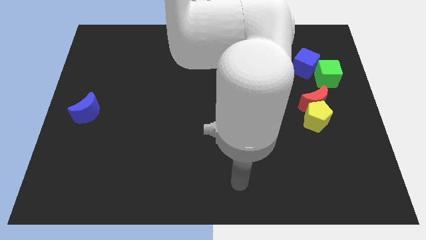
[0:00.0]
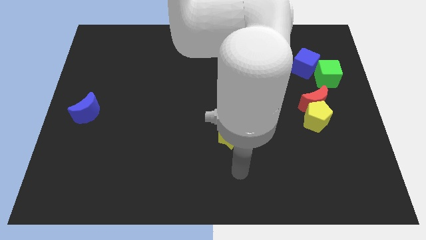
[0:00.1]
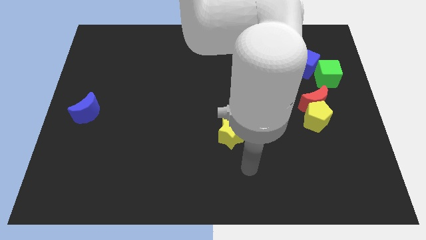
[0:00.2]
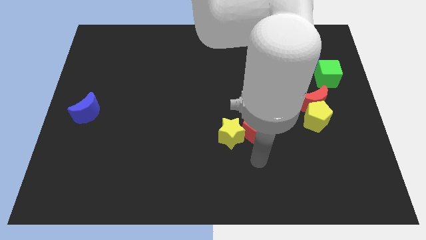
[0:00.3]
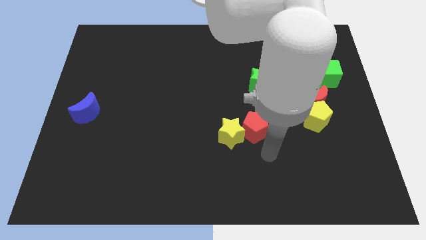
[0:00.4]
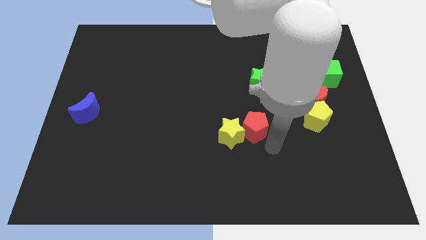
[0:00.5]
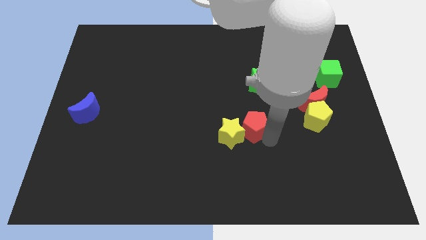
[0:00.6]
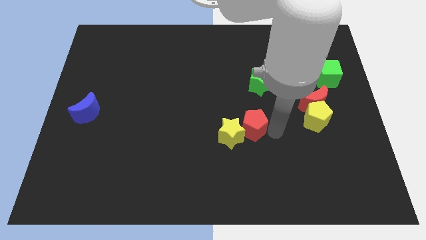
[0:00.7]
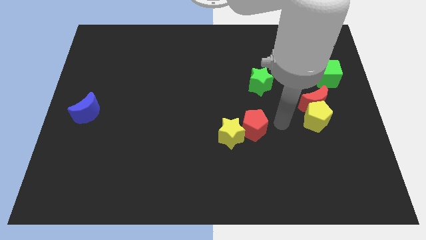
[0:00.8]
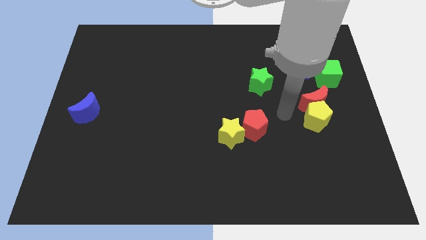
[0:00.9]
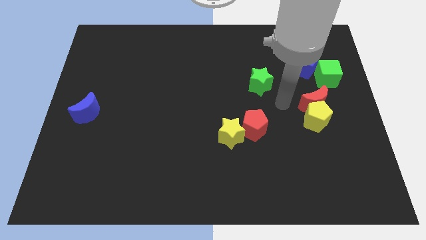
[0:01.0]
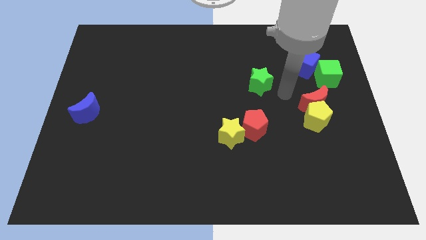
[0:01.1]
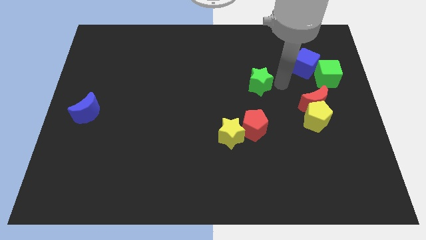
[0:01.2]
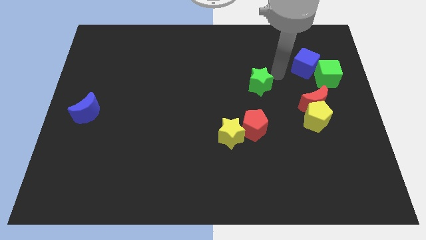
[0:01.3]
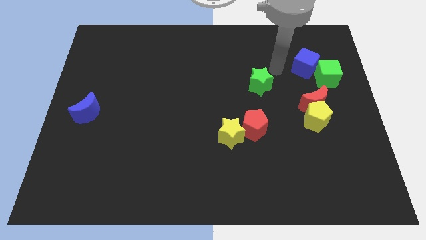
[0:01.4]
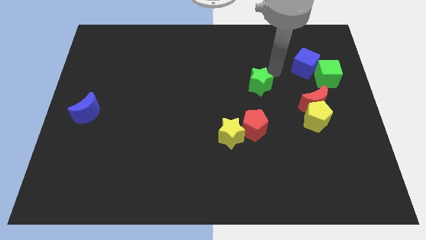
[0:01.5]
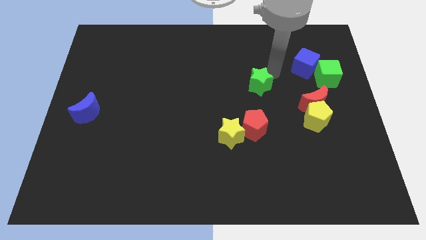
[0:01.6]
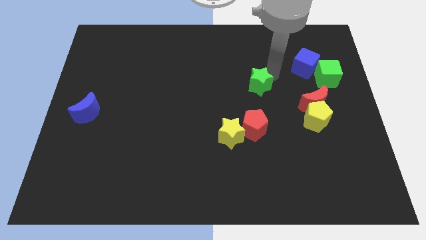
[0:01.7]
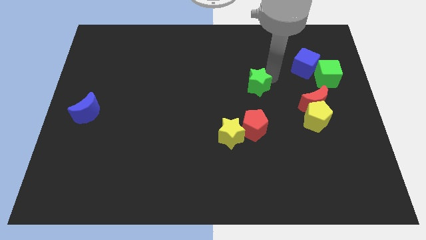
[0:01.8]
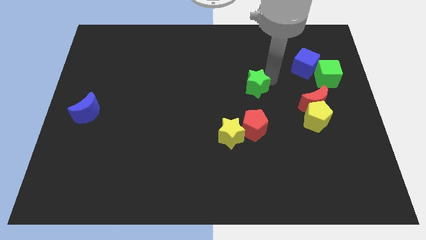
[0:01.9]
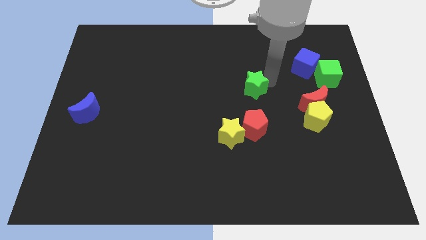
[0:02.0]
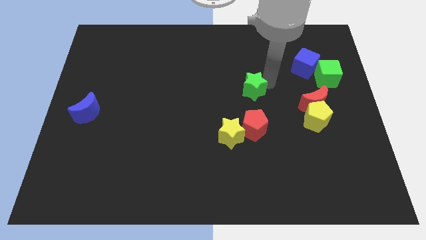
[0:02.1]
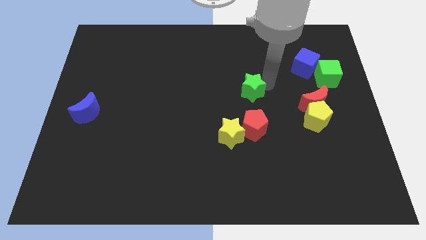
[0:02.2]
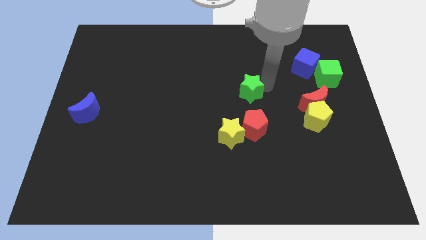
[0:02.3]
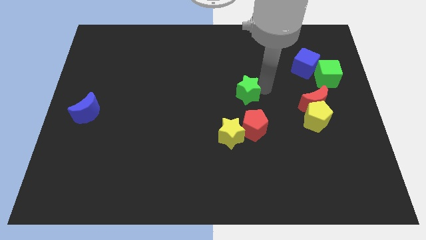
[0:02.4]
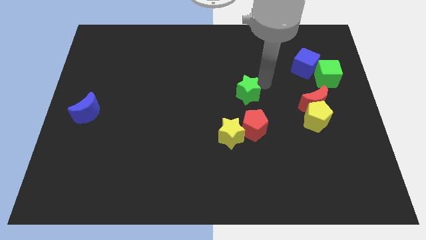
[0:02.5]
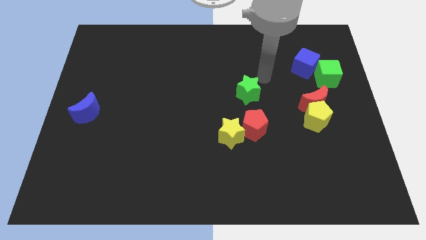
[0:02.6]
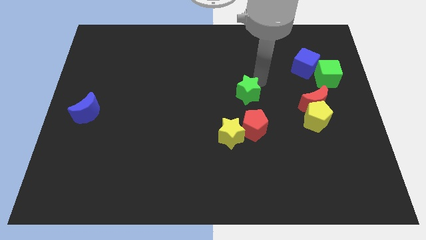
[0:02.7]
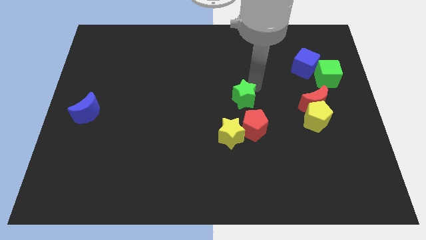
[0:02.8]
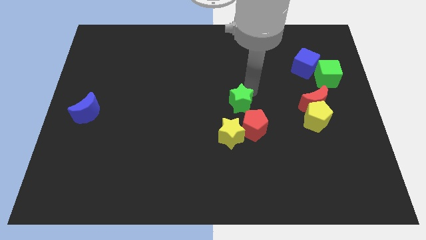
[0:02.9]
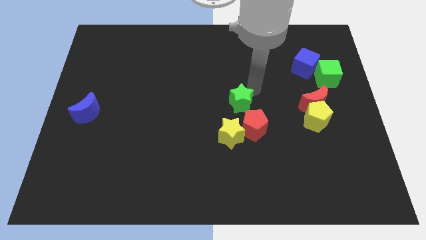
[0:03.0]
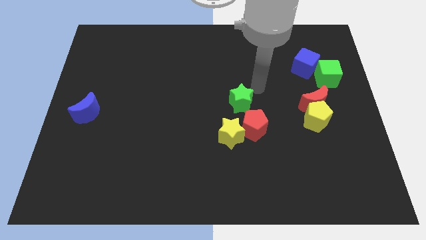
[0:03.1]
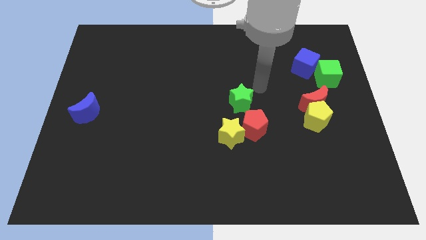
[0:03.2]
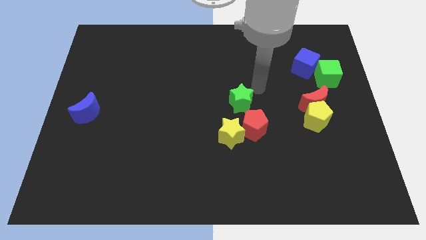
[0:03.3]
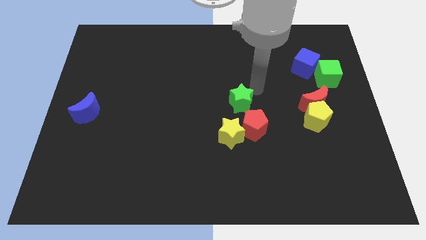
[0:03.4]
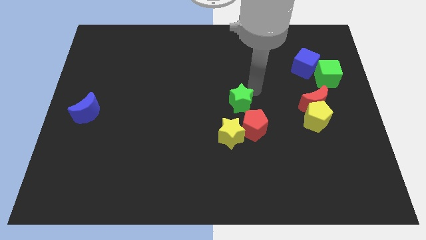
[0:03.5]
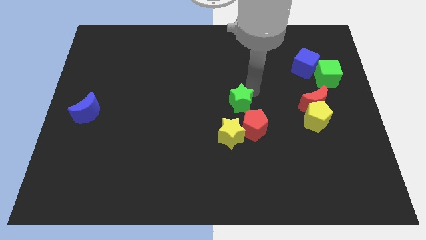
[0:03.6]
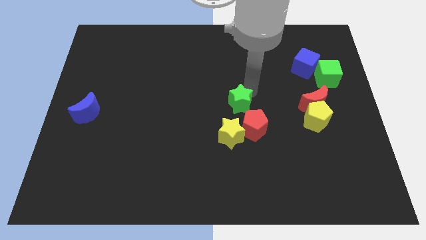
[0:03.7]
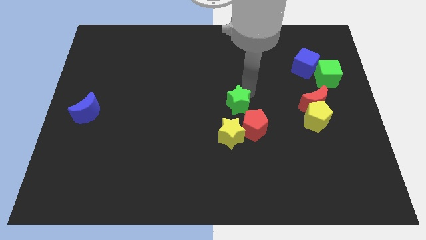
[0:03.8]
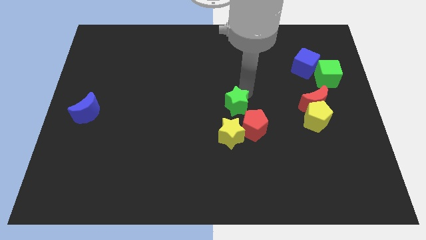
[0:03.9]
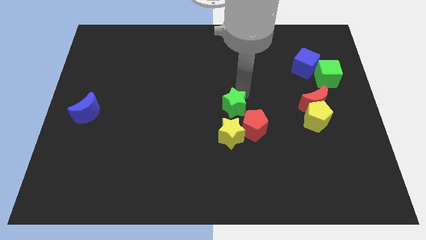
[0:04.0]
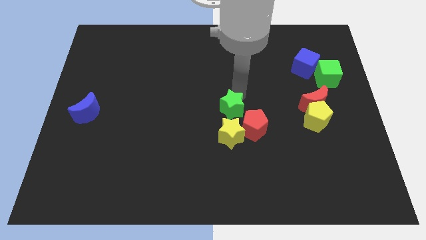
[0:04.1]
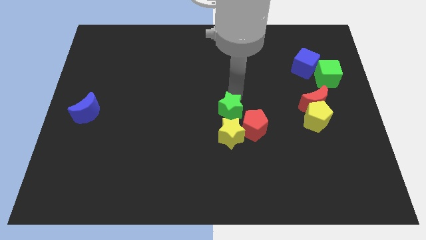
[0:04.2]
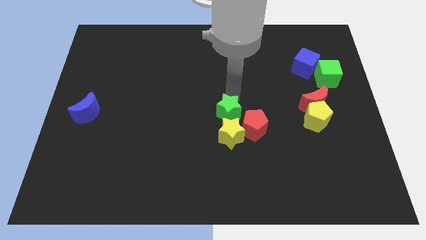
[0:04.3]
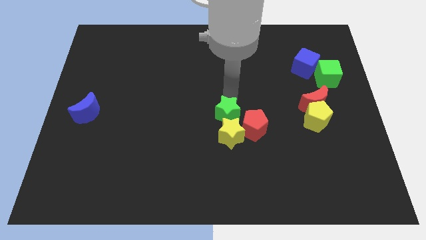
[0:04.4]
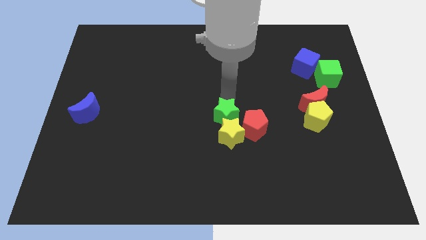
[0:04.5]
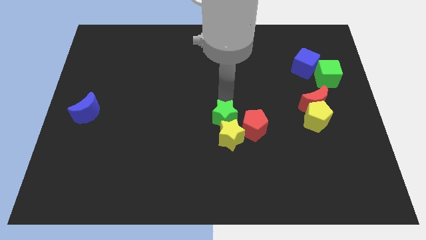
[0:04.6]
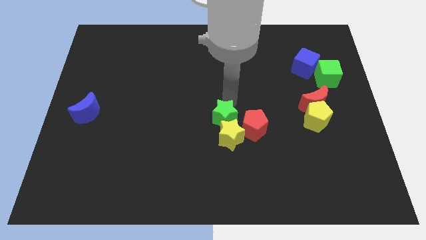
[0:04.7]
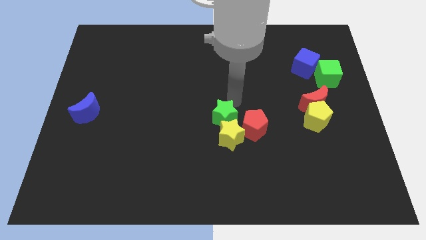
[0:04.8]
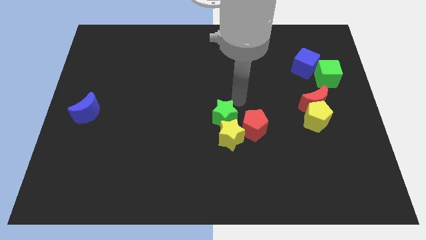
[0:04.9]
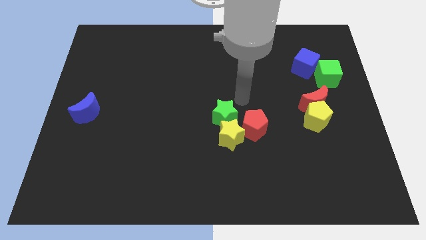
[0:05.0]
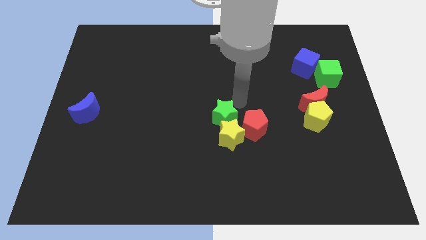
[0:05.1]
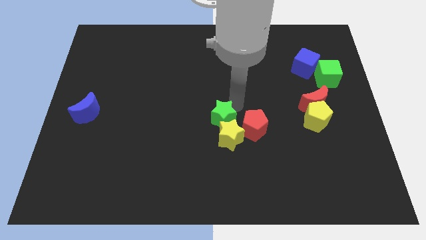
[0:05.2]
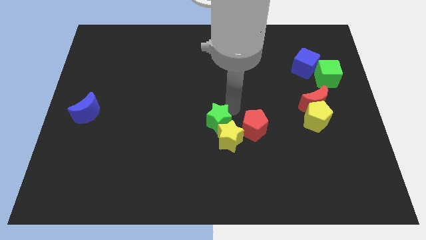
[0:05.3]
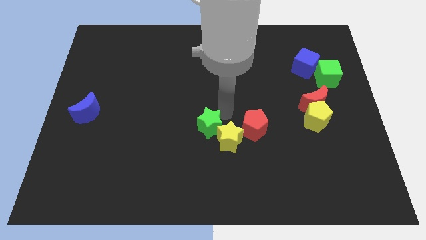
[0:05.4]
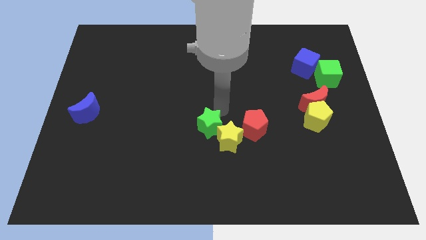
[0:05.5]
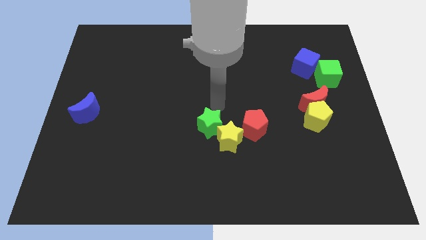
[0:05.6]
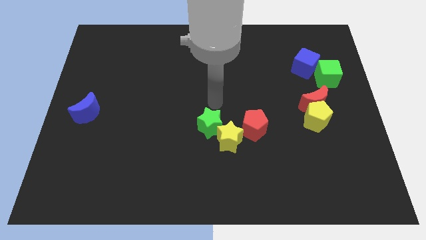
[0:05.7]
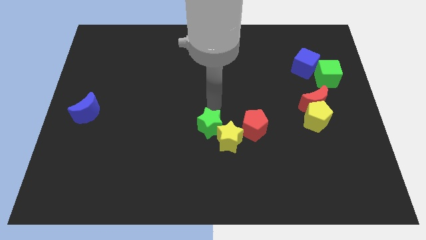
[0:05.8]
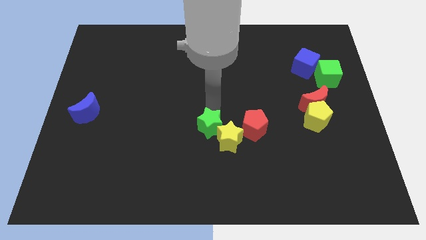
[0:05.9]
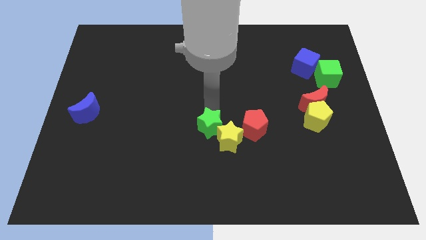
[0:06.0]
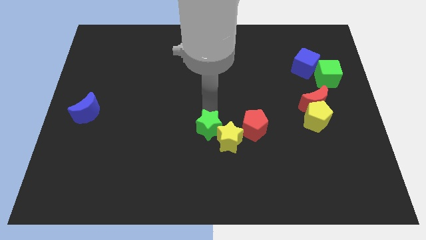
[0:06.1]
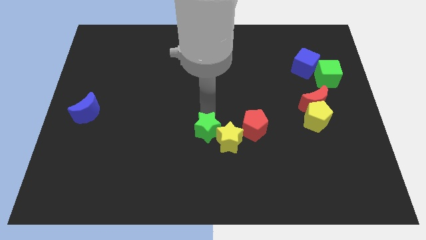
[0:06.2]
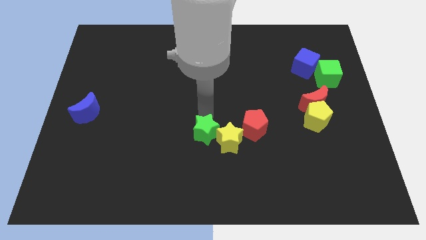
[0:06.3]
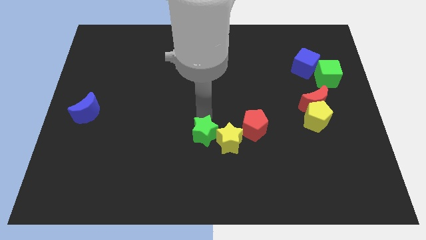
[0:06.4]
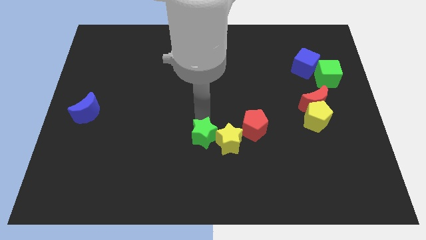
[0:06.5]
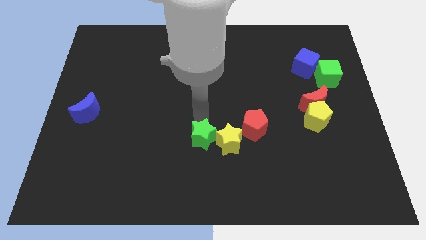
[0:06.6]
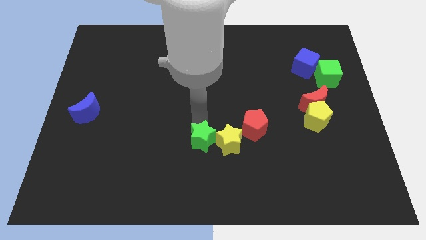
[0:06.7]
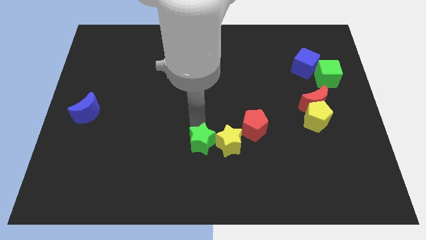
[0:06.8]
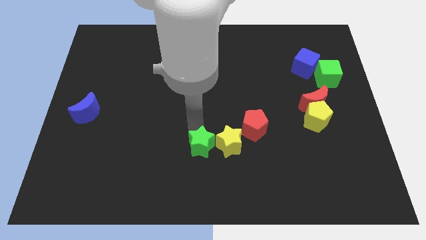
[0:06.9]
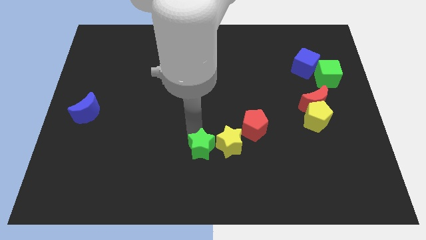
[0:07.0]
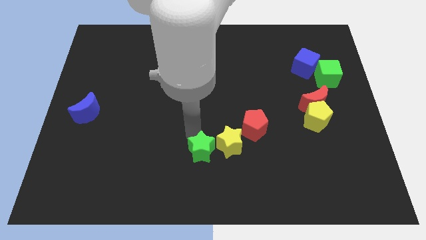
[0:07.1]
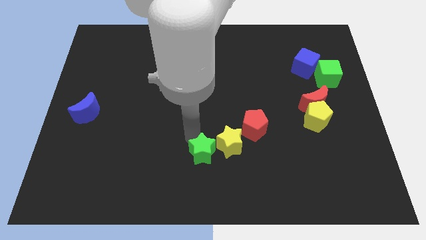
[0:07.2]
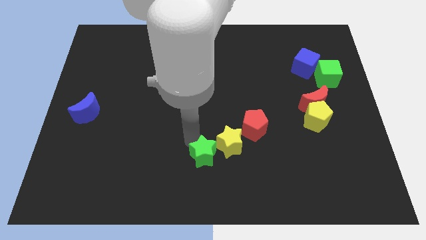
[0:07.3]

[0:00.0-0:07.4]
move the green star to the bottom side
